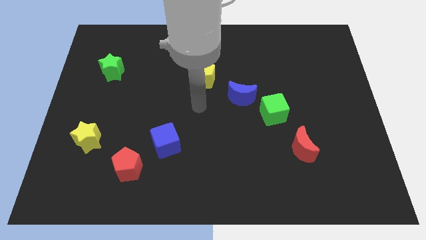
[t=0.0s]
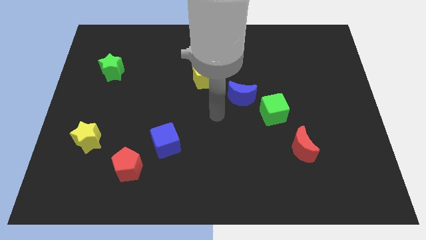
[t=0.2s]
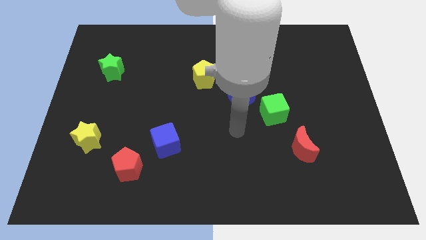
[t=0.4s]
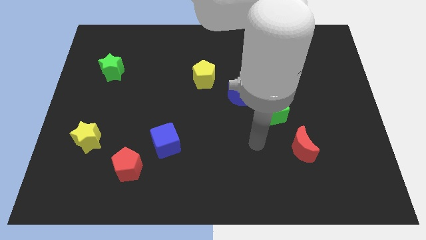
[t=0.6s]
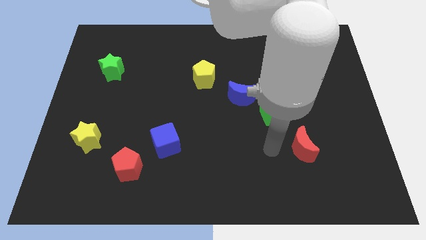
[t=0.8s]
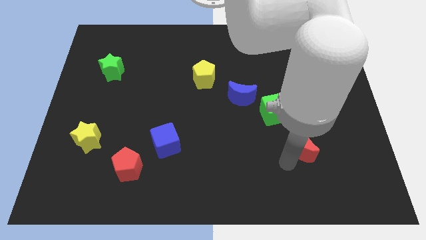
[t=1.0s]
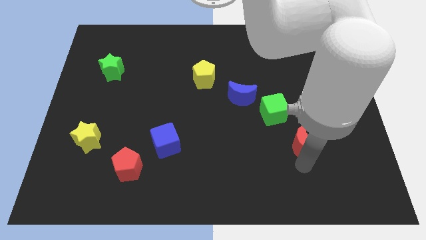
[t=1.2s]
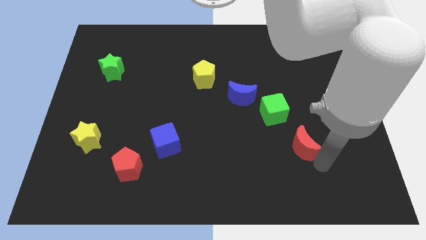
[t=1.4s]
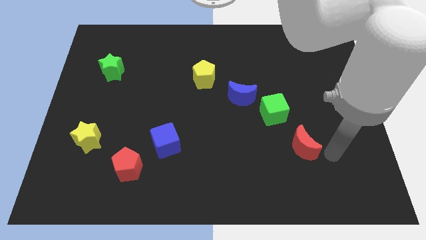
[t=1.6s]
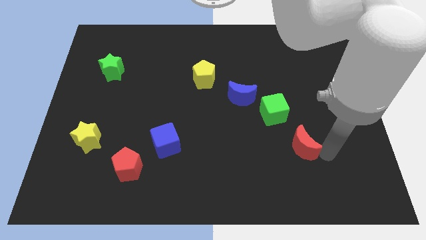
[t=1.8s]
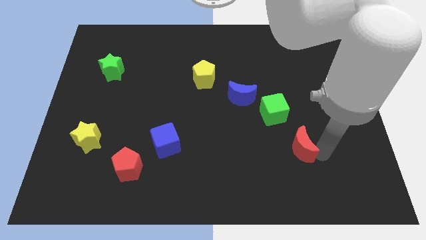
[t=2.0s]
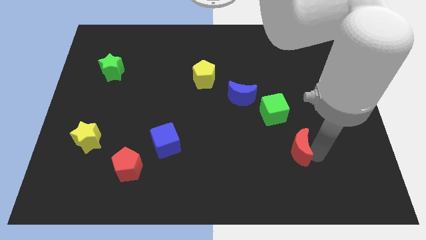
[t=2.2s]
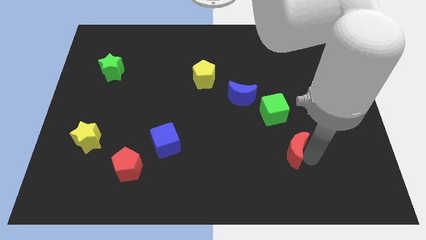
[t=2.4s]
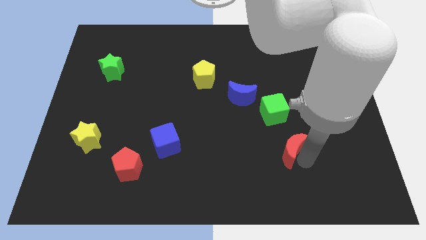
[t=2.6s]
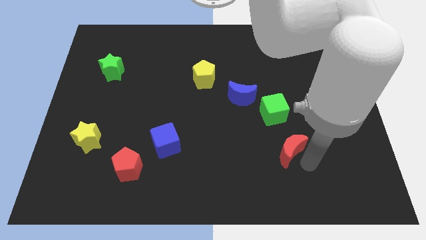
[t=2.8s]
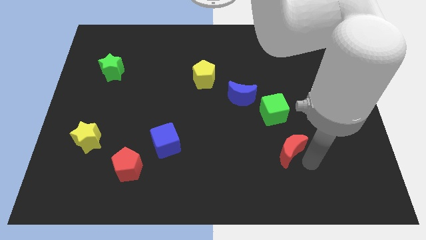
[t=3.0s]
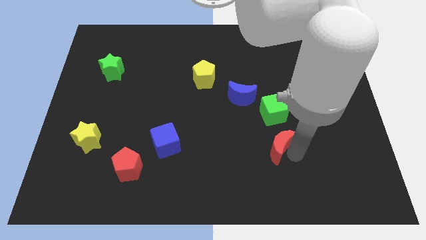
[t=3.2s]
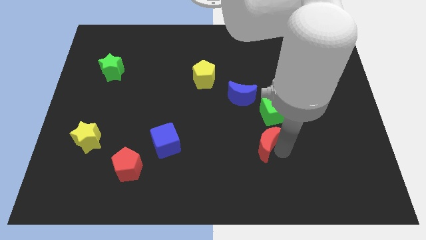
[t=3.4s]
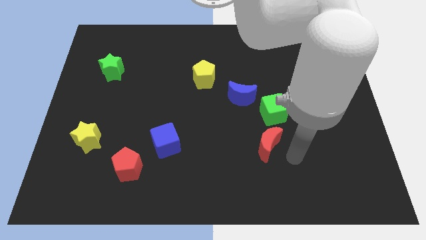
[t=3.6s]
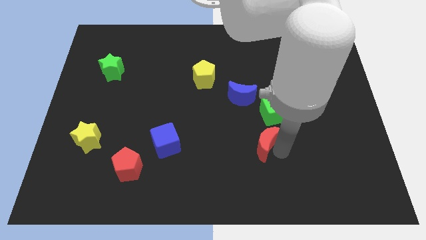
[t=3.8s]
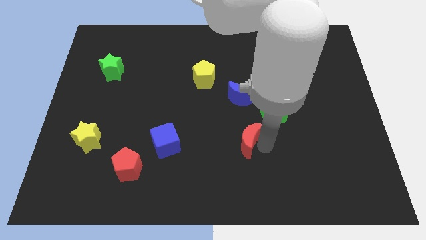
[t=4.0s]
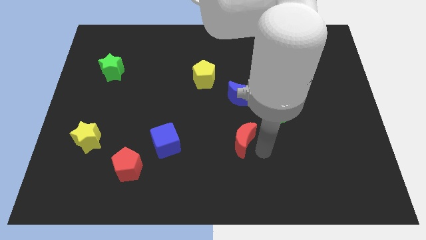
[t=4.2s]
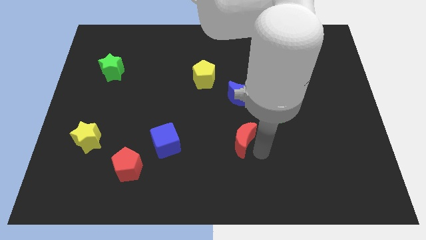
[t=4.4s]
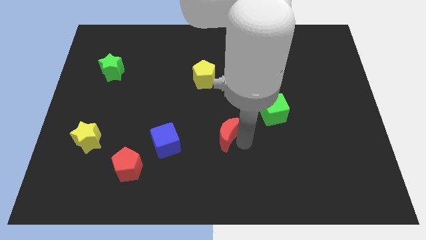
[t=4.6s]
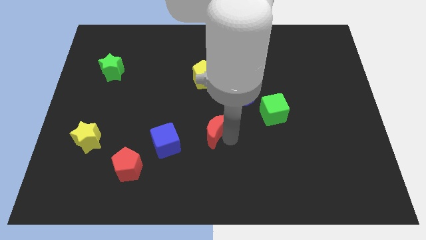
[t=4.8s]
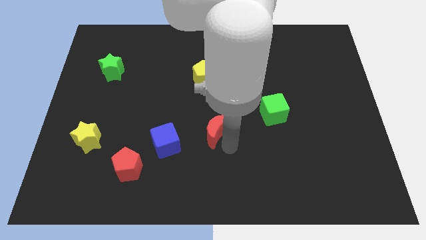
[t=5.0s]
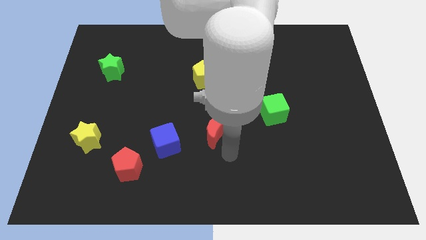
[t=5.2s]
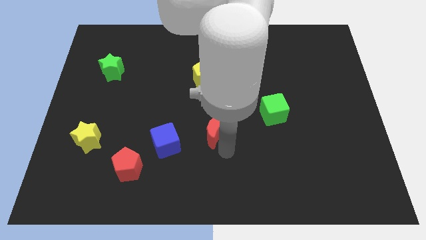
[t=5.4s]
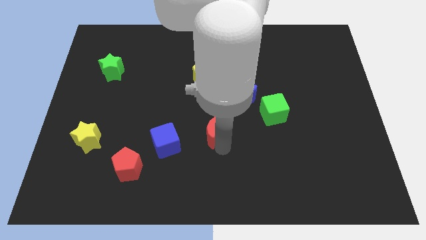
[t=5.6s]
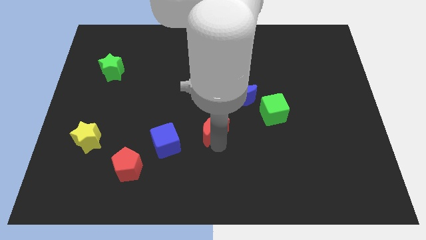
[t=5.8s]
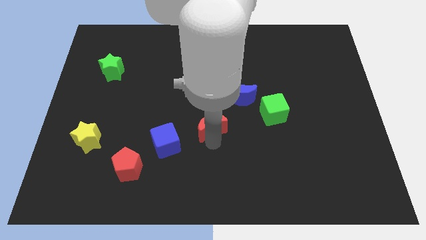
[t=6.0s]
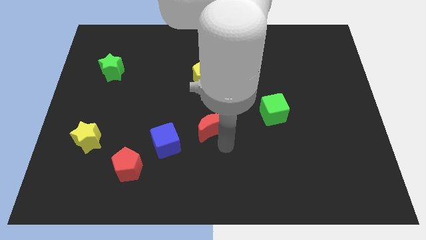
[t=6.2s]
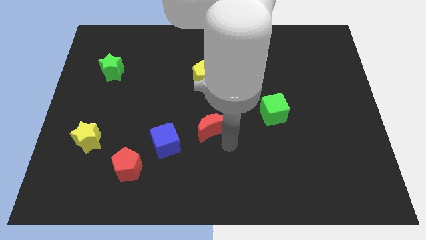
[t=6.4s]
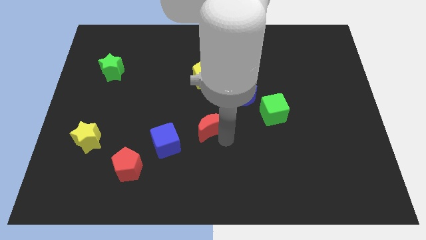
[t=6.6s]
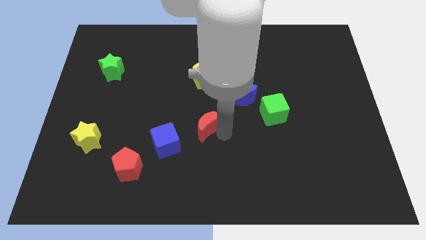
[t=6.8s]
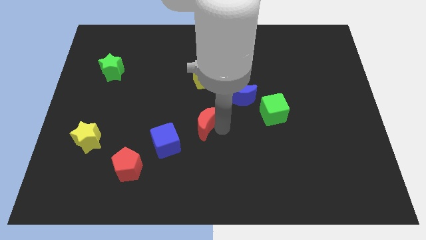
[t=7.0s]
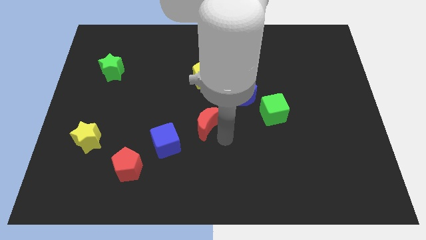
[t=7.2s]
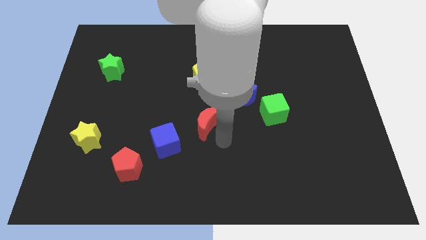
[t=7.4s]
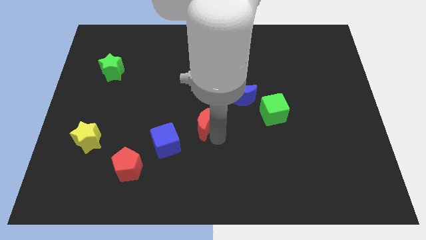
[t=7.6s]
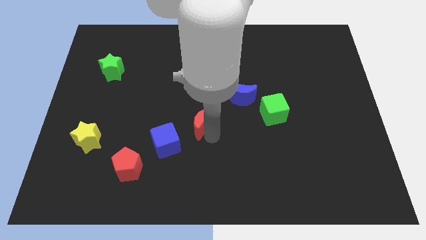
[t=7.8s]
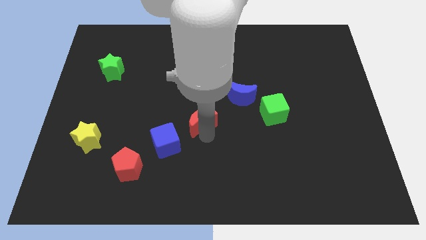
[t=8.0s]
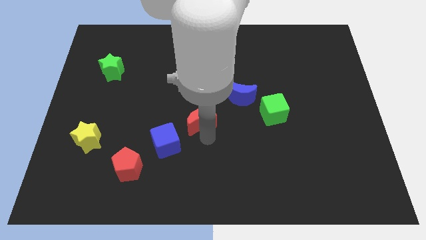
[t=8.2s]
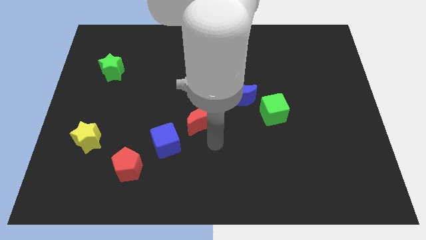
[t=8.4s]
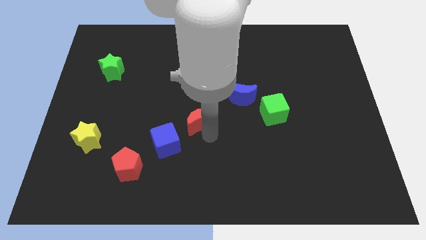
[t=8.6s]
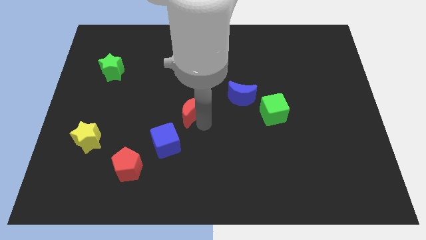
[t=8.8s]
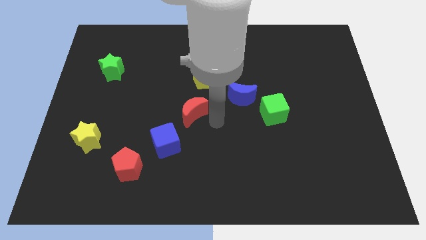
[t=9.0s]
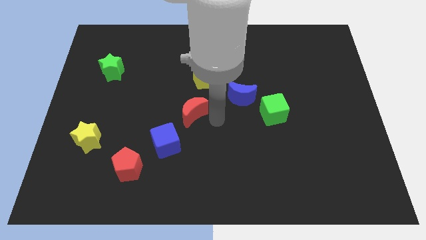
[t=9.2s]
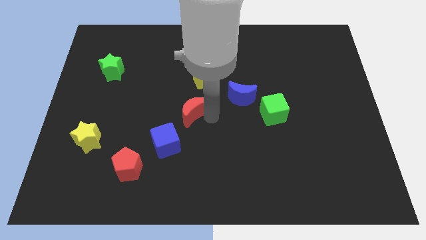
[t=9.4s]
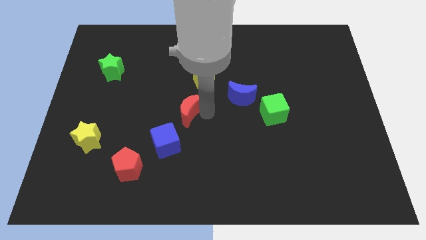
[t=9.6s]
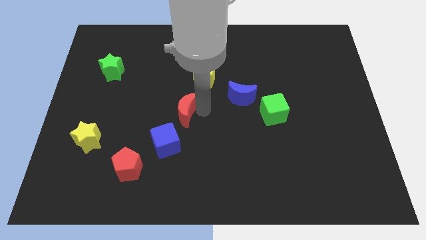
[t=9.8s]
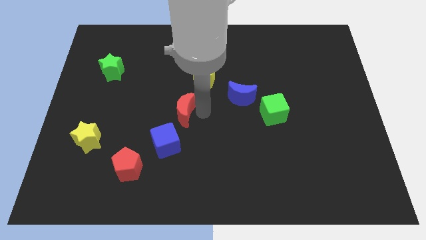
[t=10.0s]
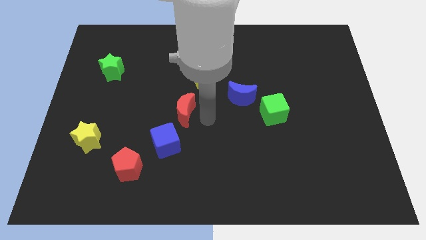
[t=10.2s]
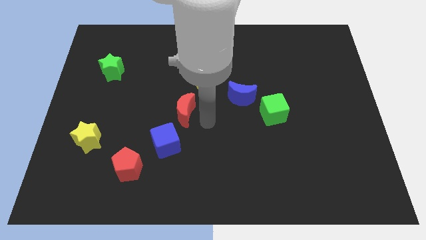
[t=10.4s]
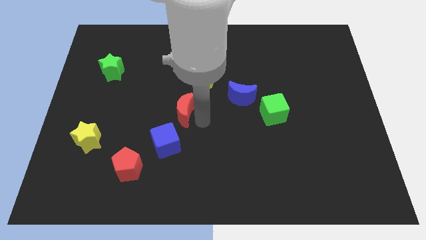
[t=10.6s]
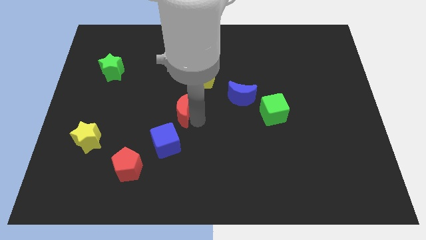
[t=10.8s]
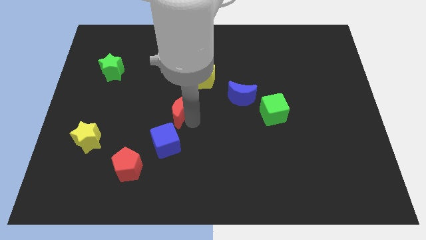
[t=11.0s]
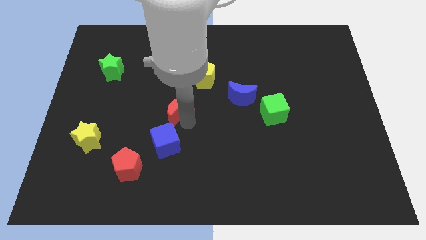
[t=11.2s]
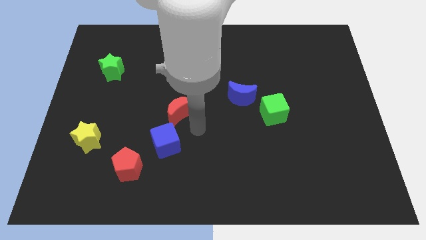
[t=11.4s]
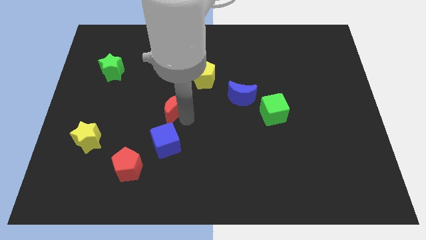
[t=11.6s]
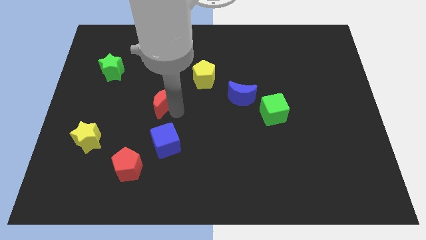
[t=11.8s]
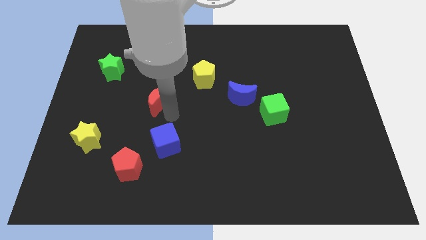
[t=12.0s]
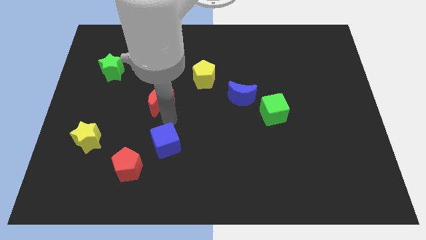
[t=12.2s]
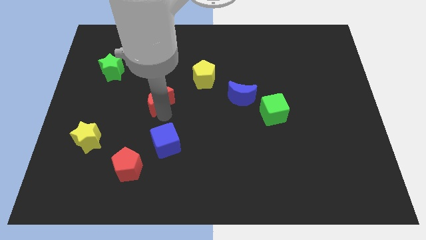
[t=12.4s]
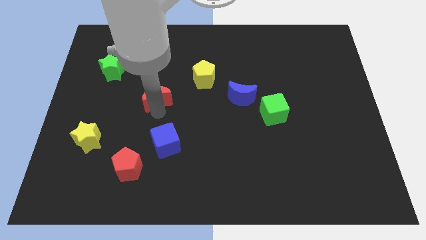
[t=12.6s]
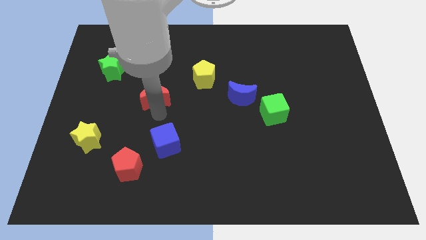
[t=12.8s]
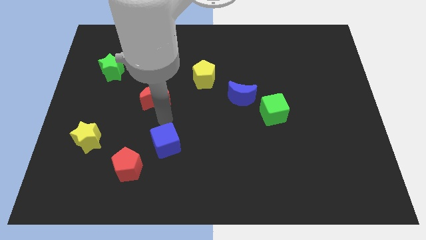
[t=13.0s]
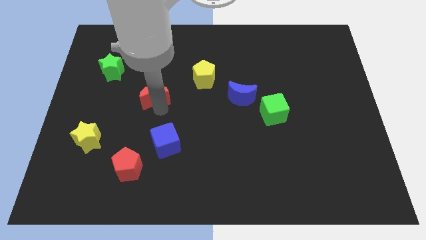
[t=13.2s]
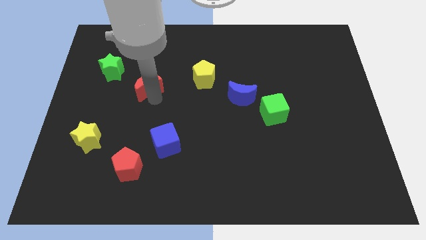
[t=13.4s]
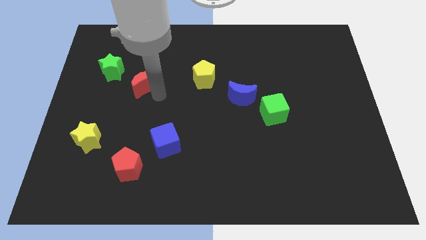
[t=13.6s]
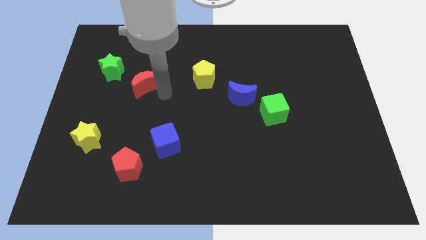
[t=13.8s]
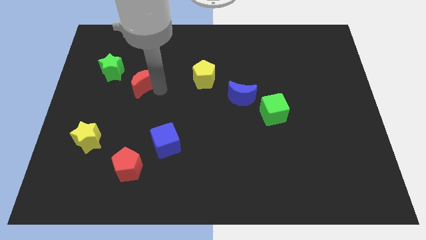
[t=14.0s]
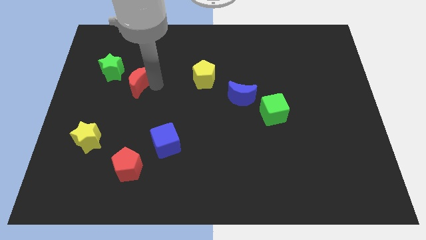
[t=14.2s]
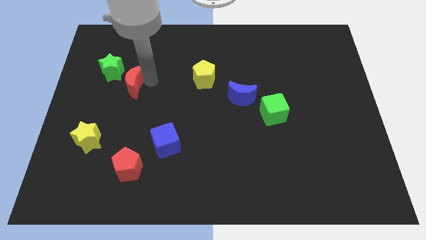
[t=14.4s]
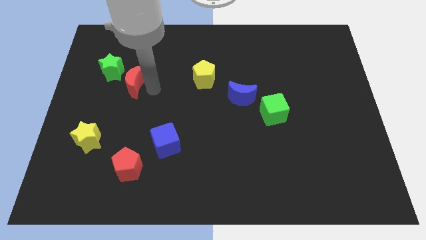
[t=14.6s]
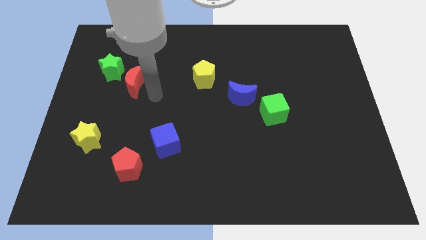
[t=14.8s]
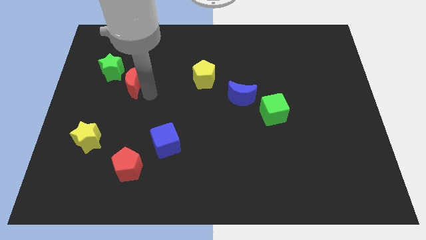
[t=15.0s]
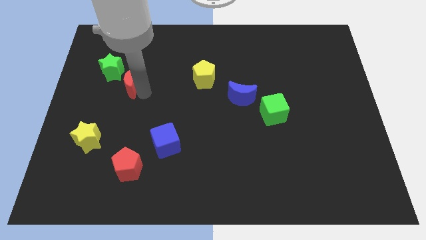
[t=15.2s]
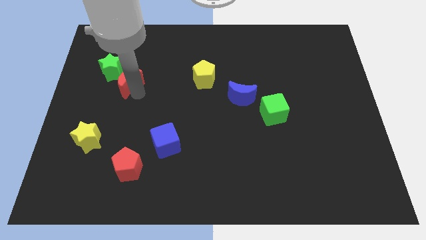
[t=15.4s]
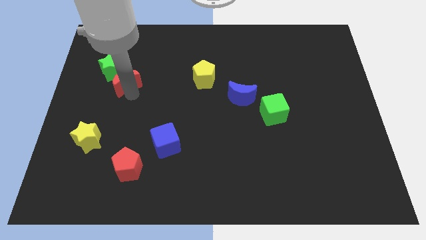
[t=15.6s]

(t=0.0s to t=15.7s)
slide the red moon close to the green star
